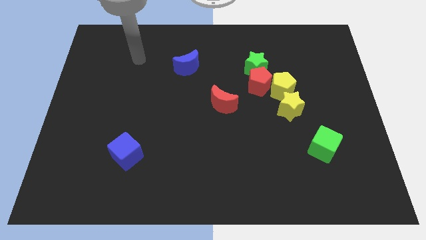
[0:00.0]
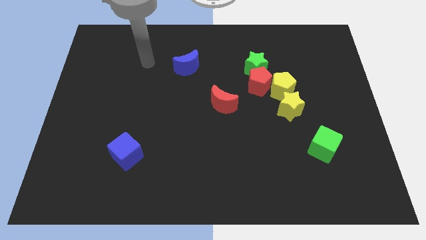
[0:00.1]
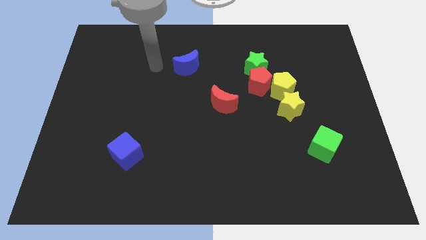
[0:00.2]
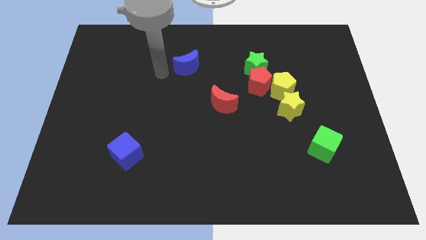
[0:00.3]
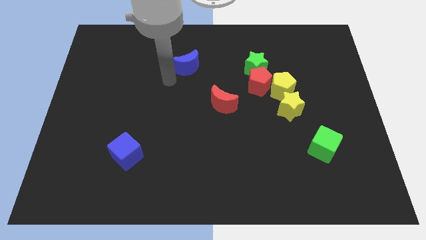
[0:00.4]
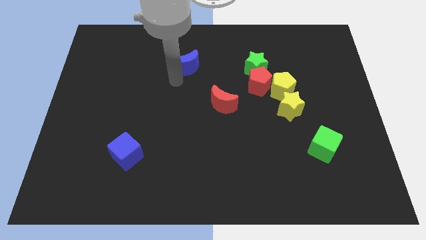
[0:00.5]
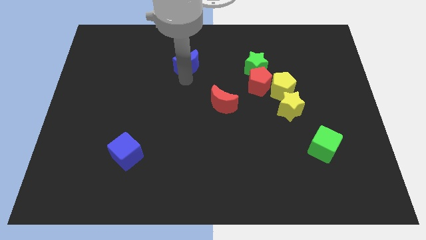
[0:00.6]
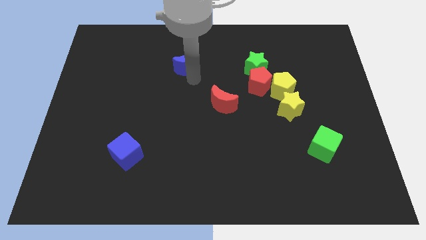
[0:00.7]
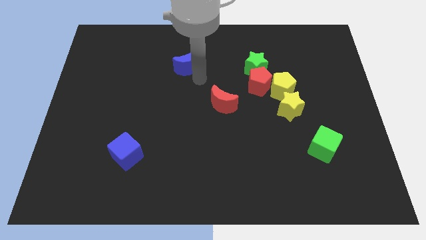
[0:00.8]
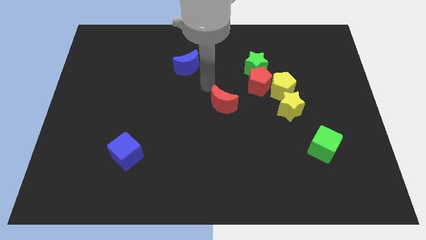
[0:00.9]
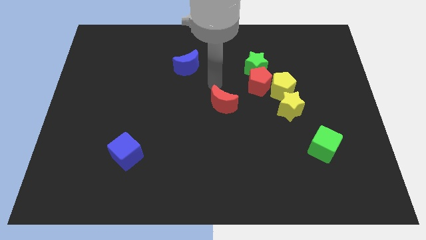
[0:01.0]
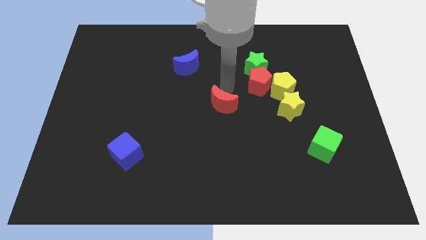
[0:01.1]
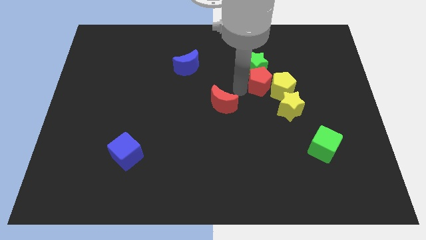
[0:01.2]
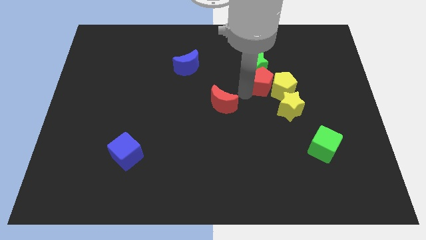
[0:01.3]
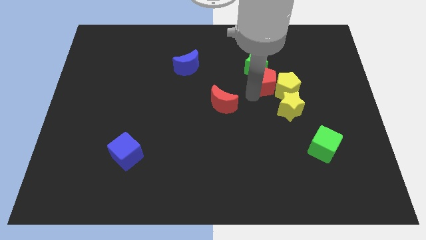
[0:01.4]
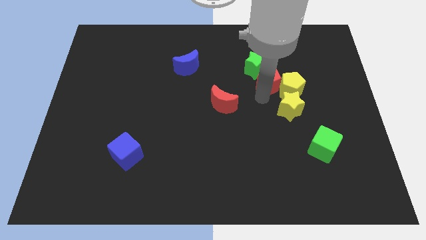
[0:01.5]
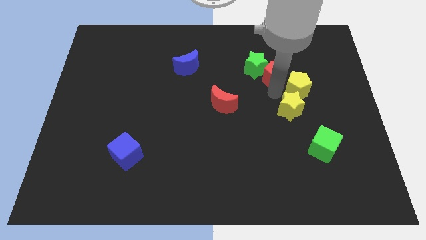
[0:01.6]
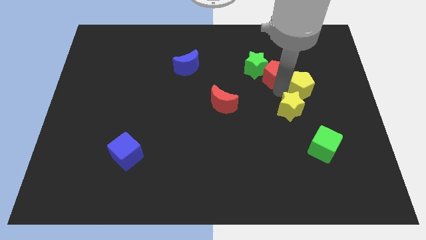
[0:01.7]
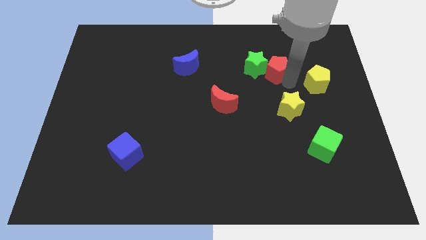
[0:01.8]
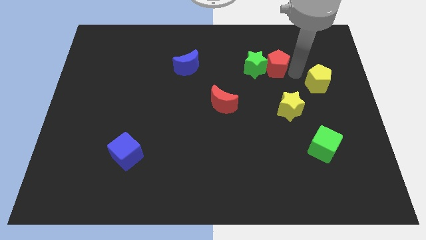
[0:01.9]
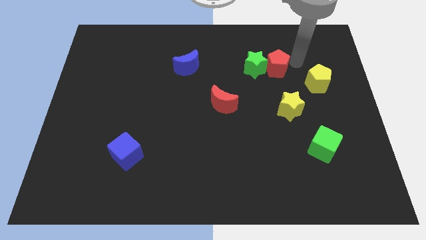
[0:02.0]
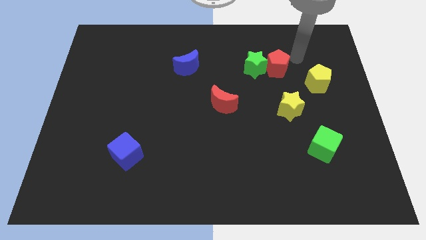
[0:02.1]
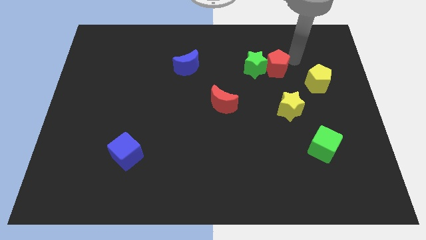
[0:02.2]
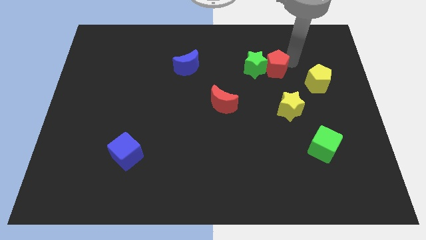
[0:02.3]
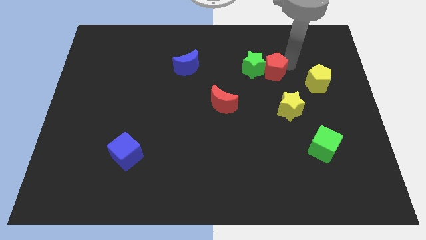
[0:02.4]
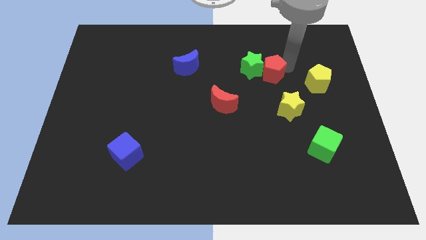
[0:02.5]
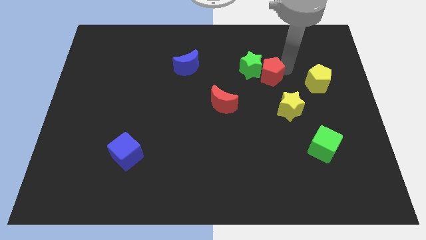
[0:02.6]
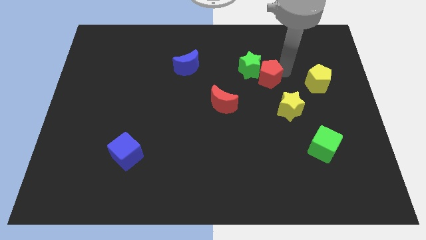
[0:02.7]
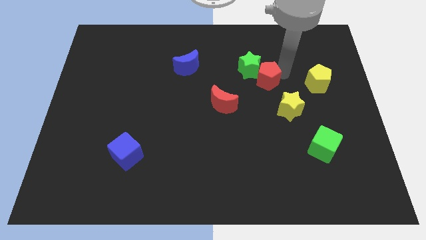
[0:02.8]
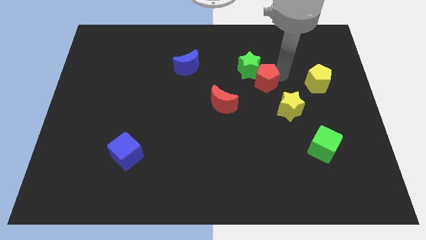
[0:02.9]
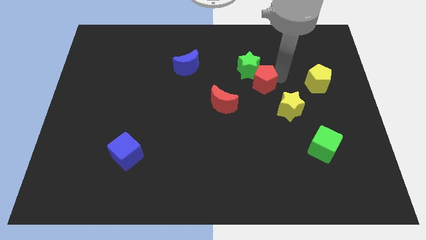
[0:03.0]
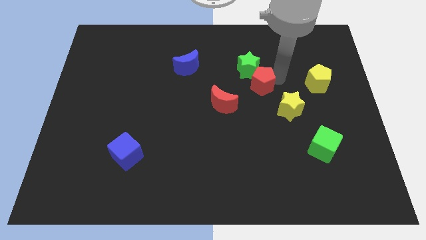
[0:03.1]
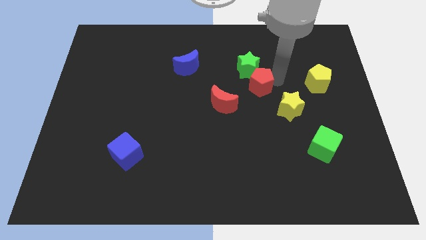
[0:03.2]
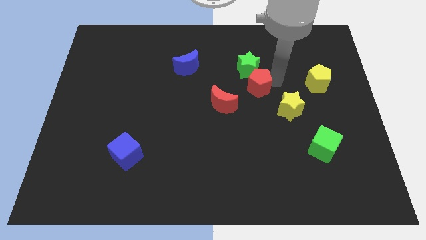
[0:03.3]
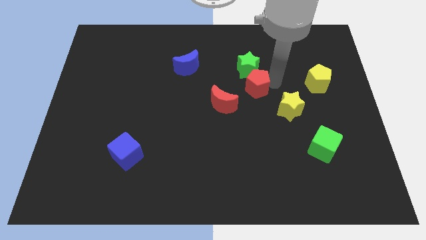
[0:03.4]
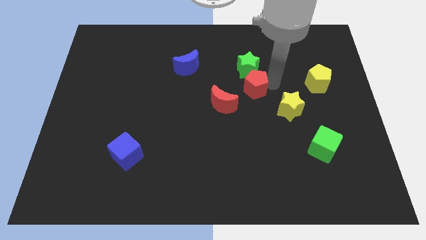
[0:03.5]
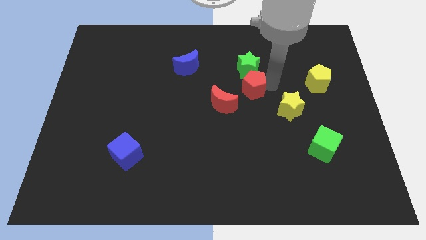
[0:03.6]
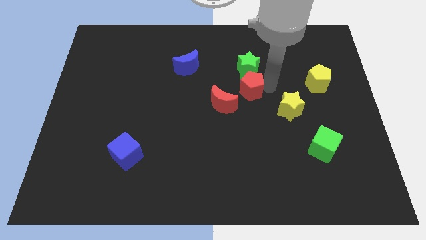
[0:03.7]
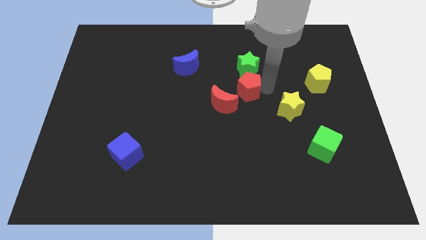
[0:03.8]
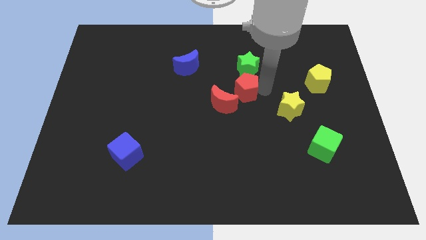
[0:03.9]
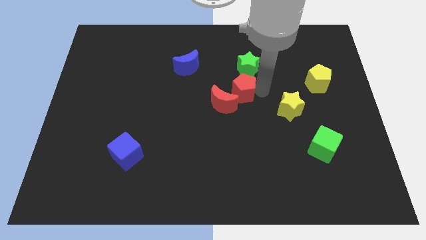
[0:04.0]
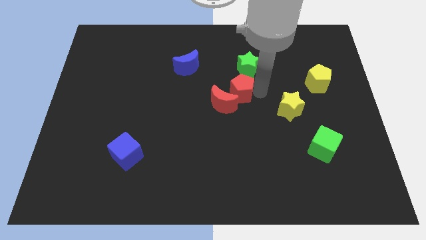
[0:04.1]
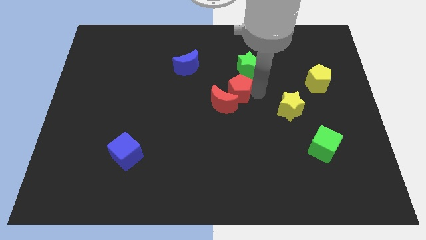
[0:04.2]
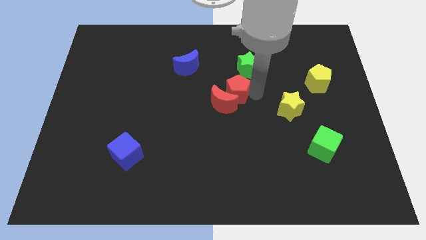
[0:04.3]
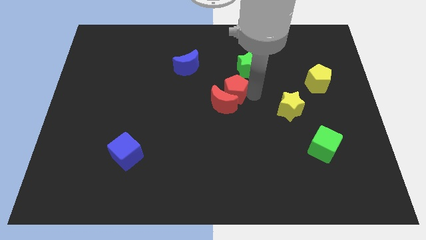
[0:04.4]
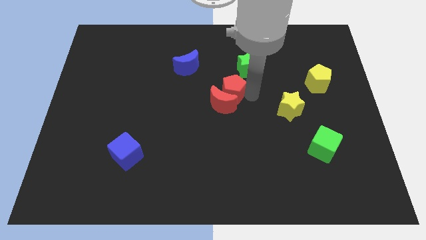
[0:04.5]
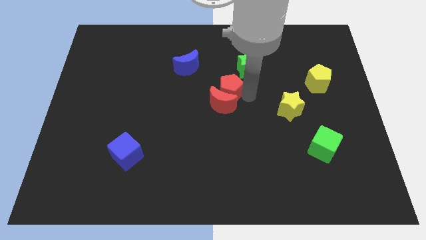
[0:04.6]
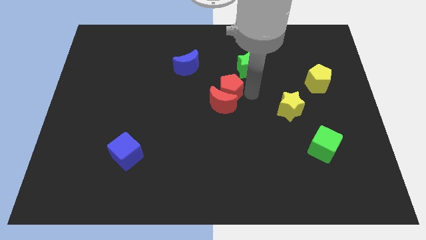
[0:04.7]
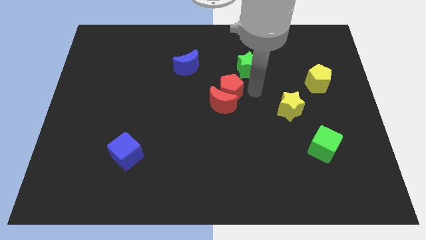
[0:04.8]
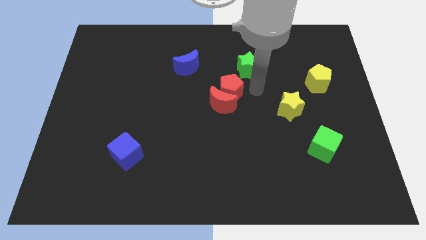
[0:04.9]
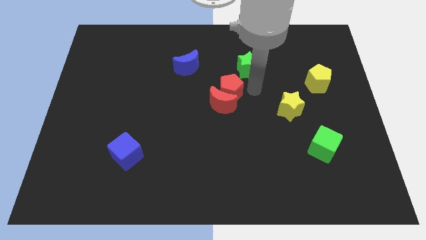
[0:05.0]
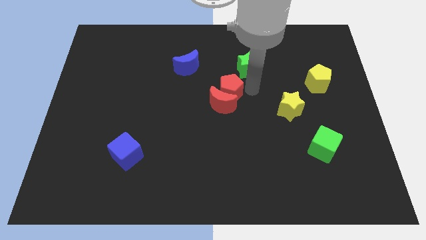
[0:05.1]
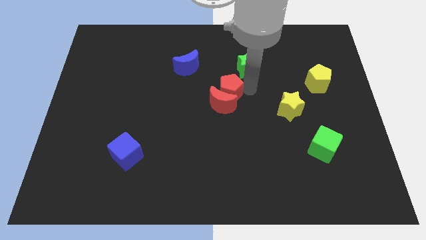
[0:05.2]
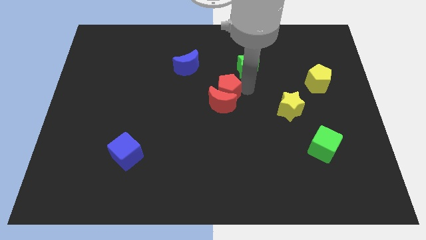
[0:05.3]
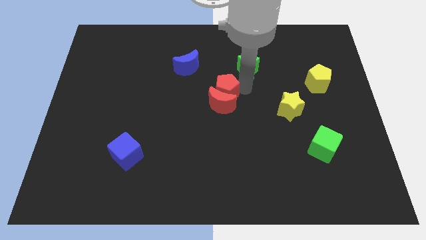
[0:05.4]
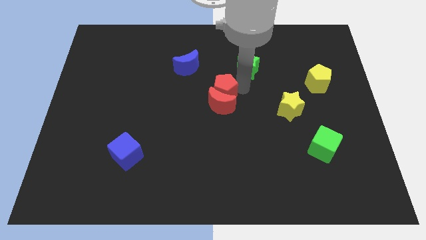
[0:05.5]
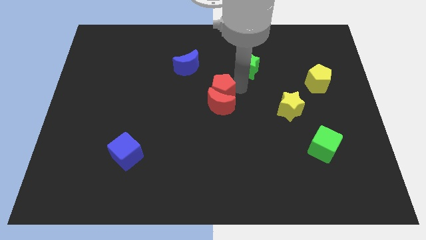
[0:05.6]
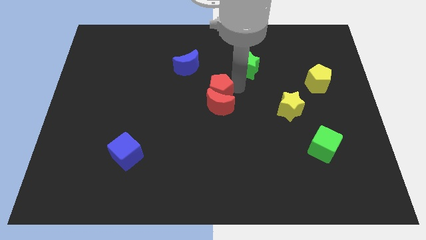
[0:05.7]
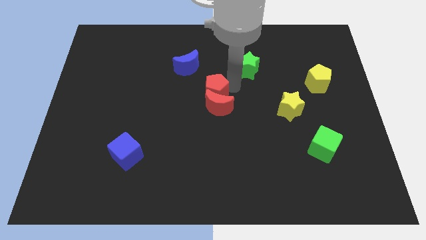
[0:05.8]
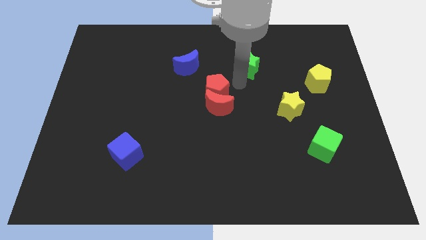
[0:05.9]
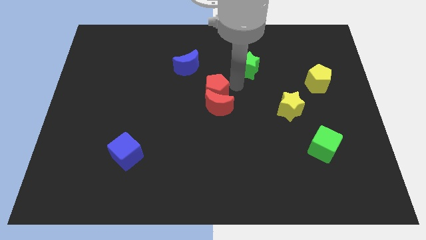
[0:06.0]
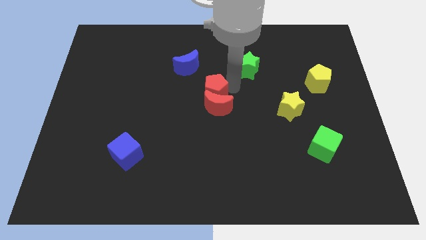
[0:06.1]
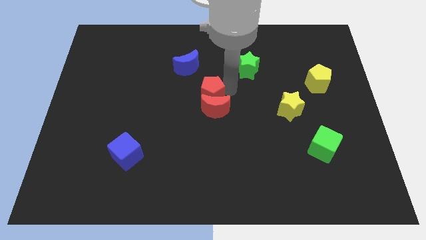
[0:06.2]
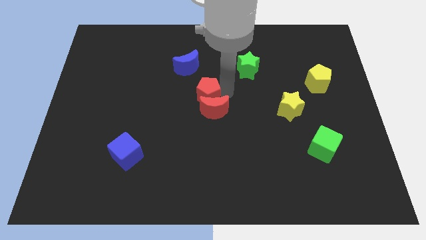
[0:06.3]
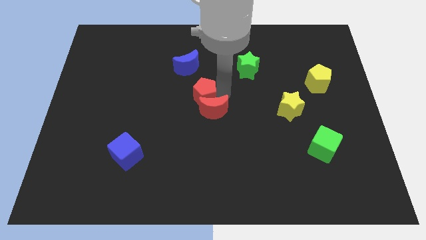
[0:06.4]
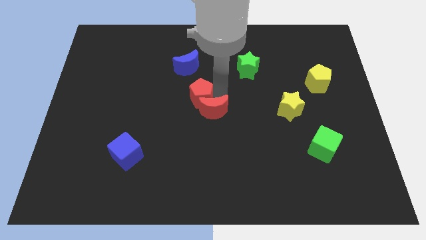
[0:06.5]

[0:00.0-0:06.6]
move the red pentagon just left of the red moon
